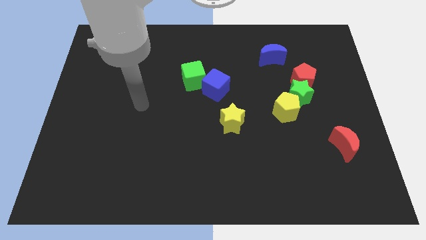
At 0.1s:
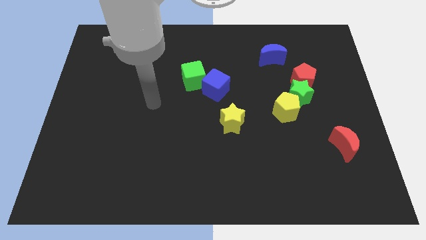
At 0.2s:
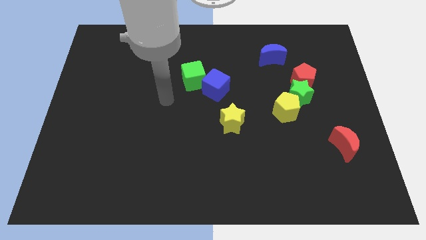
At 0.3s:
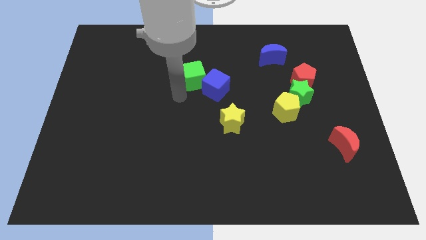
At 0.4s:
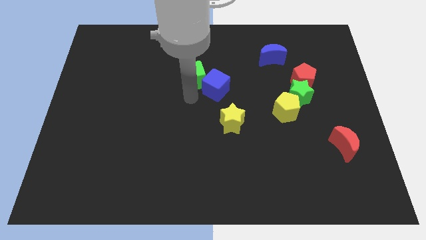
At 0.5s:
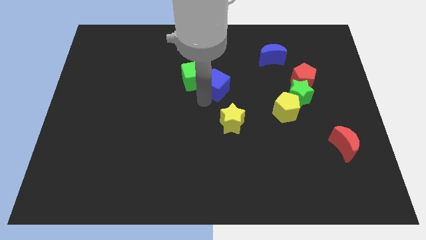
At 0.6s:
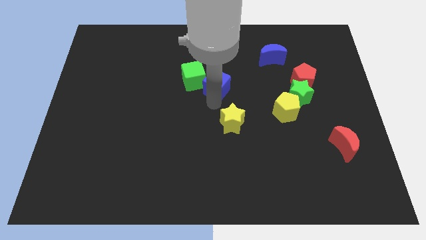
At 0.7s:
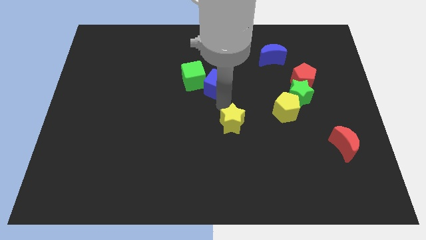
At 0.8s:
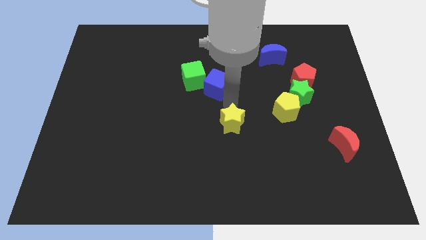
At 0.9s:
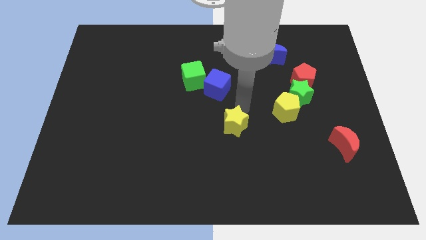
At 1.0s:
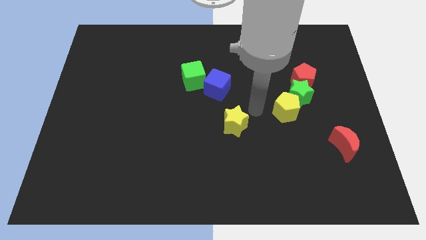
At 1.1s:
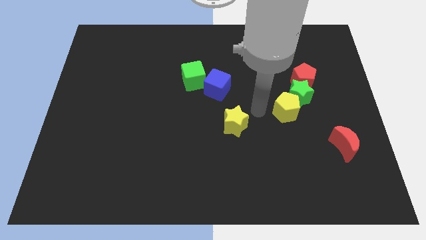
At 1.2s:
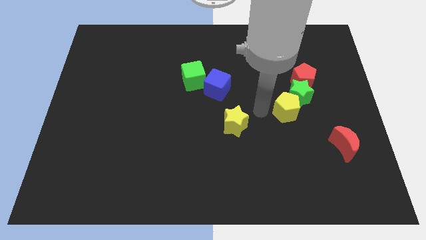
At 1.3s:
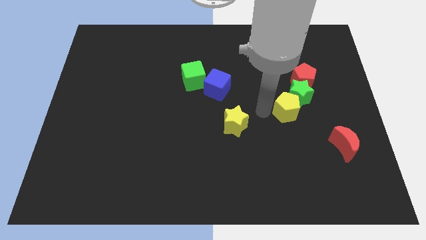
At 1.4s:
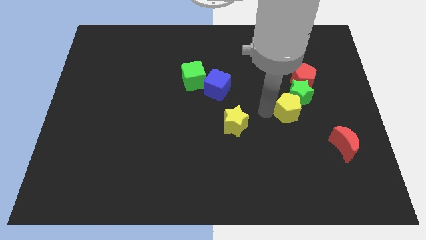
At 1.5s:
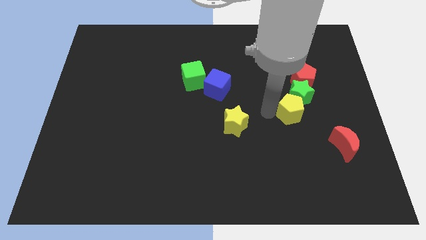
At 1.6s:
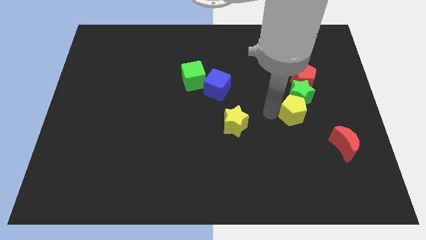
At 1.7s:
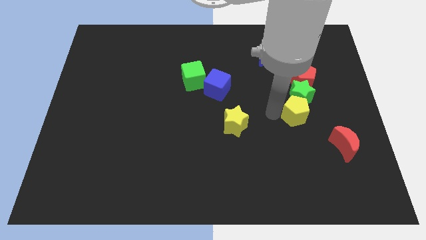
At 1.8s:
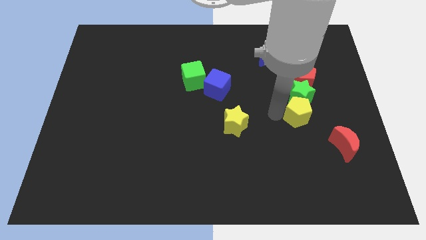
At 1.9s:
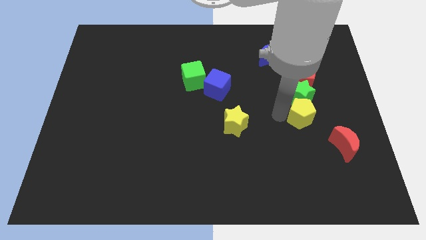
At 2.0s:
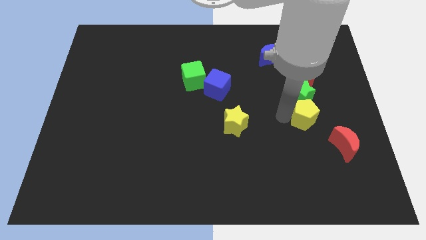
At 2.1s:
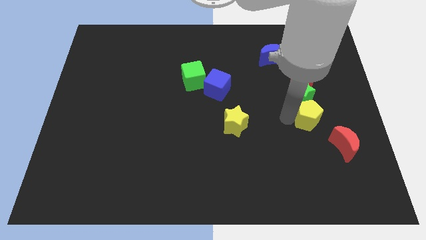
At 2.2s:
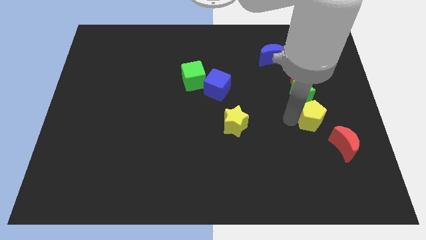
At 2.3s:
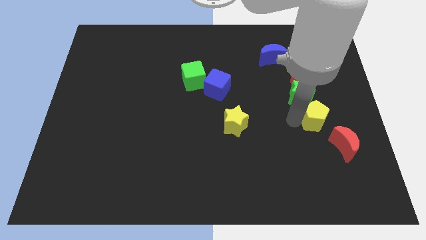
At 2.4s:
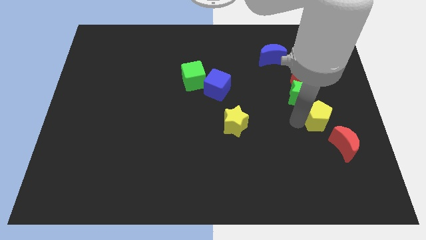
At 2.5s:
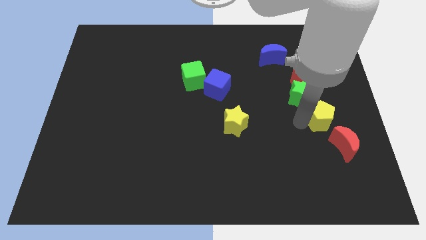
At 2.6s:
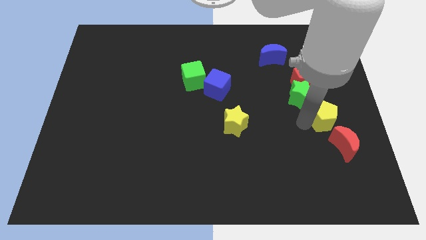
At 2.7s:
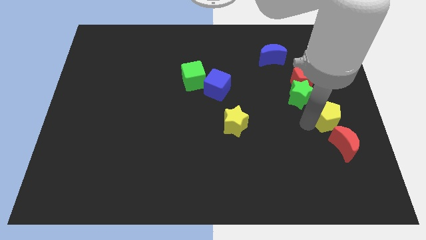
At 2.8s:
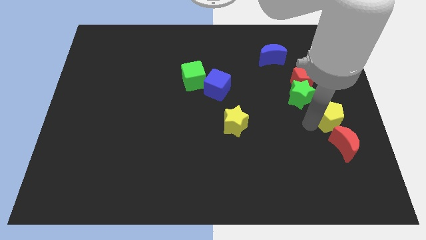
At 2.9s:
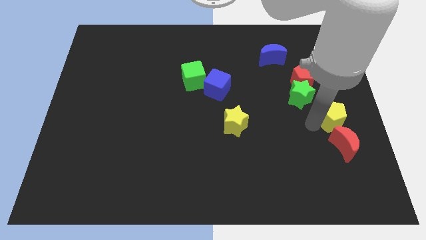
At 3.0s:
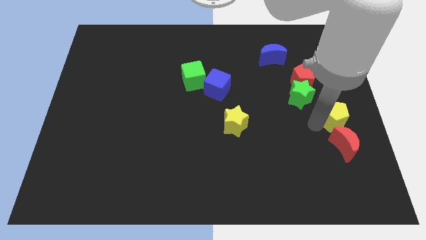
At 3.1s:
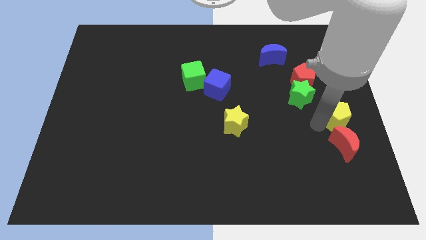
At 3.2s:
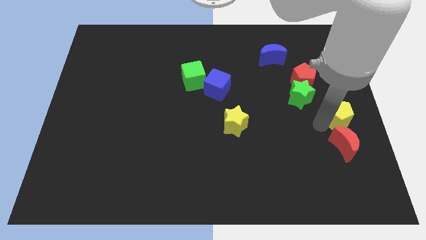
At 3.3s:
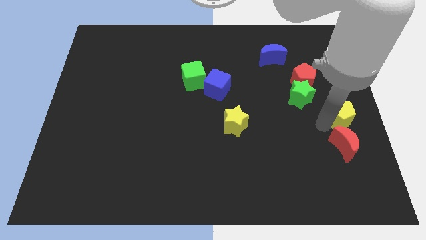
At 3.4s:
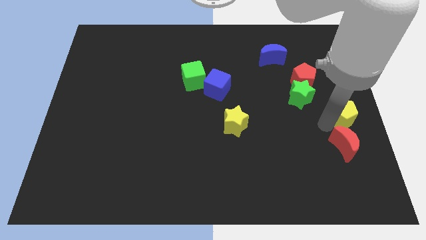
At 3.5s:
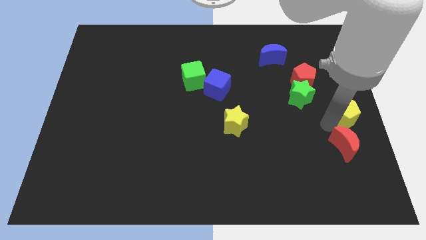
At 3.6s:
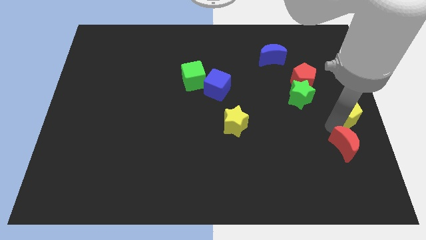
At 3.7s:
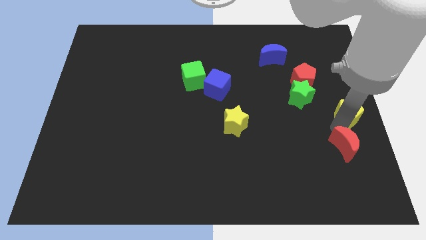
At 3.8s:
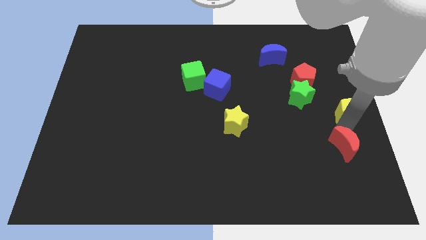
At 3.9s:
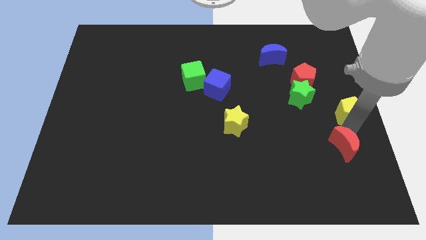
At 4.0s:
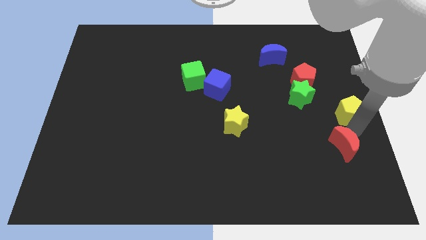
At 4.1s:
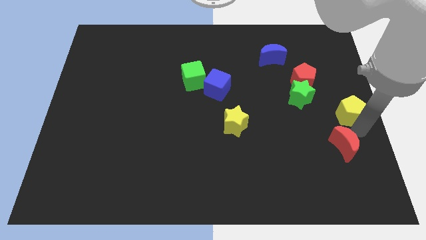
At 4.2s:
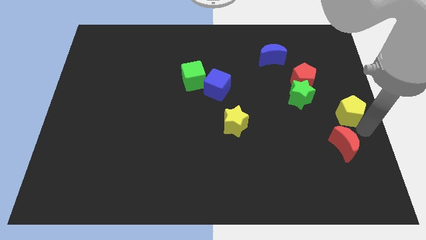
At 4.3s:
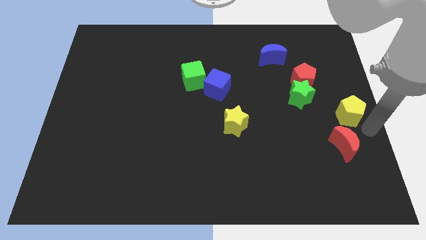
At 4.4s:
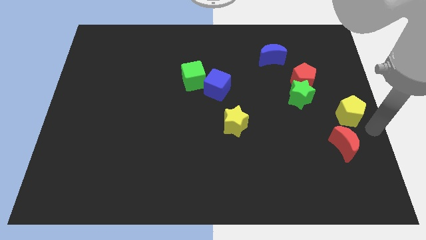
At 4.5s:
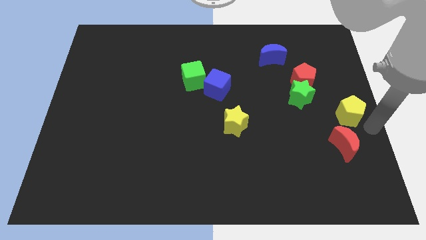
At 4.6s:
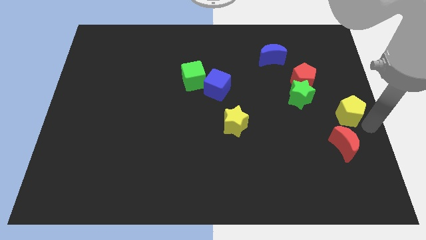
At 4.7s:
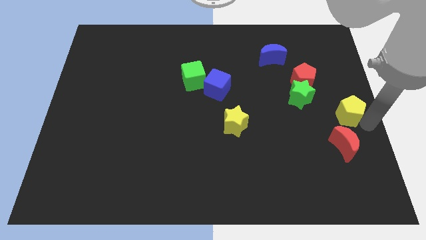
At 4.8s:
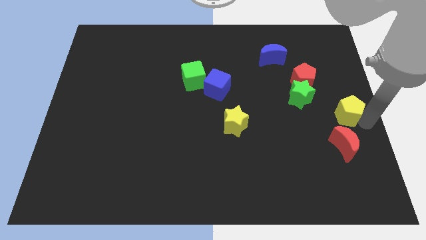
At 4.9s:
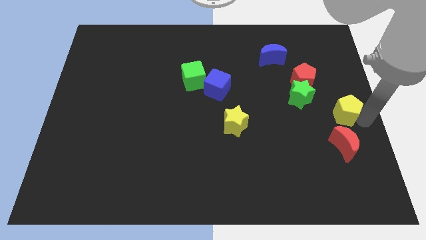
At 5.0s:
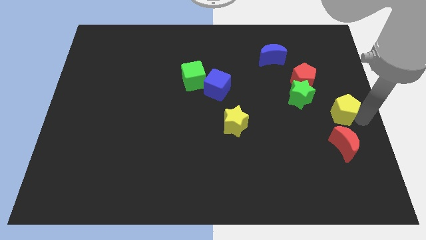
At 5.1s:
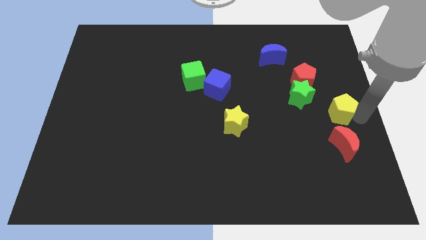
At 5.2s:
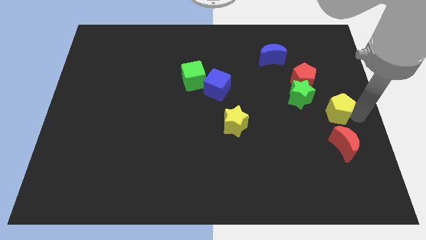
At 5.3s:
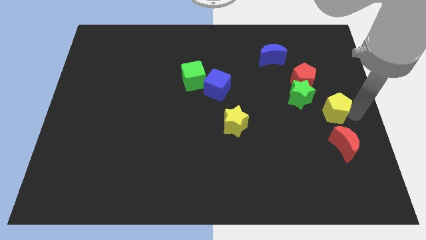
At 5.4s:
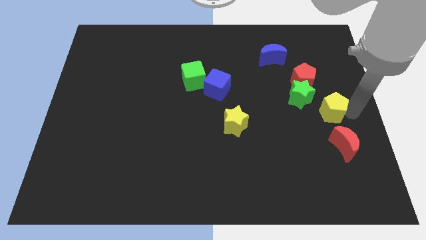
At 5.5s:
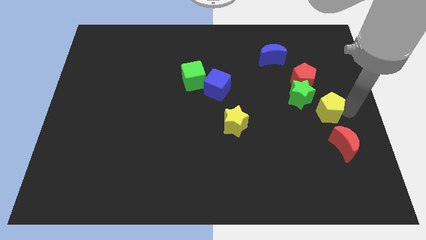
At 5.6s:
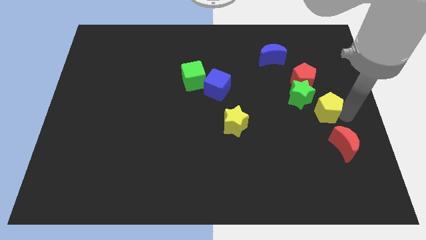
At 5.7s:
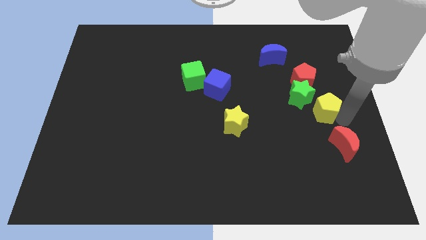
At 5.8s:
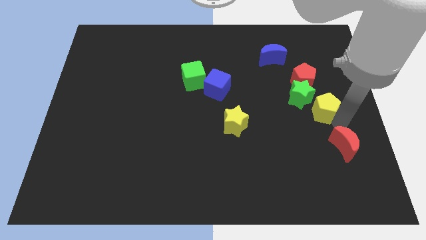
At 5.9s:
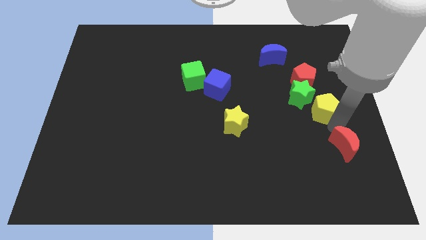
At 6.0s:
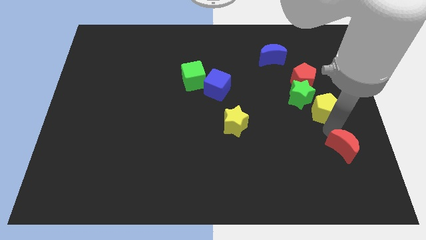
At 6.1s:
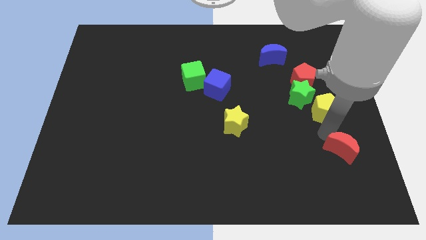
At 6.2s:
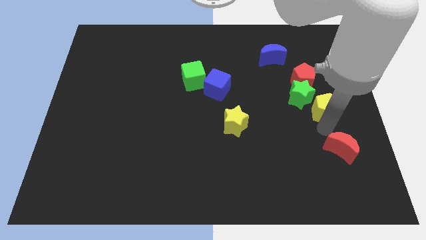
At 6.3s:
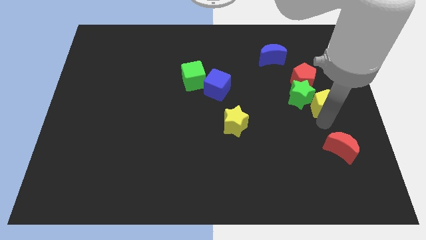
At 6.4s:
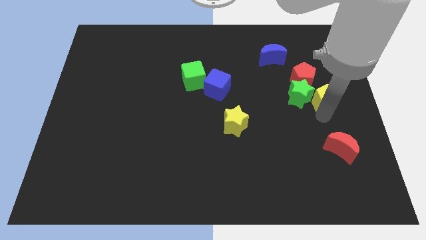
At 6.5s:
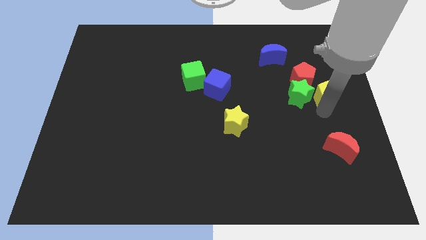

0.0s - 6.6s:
put the yellow pentagon to the top right side of the green star

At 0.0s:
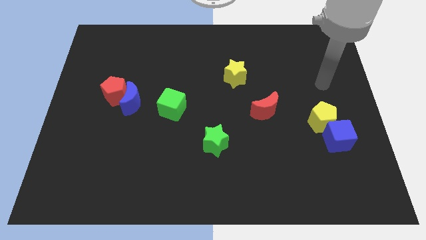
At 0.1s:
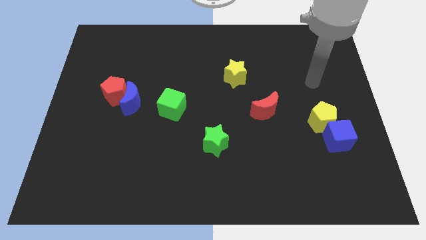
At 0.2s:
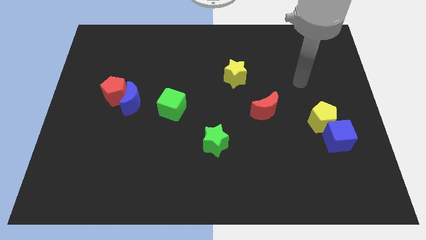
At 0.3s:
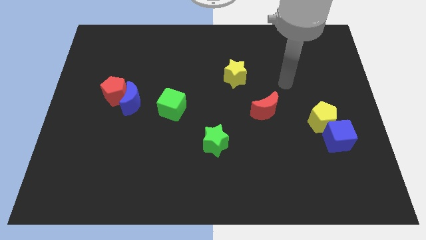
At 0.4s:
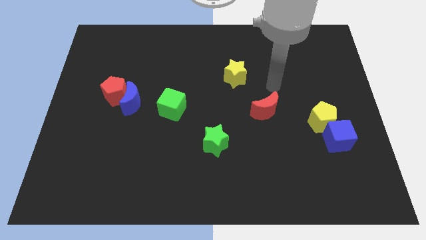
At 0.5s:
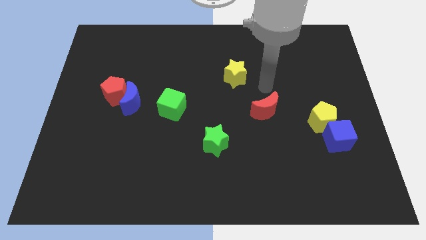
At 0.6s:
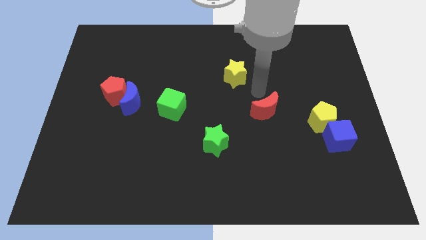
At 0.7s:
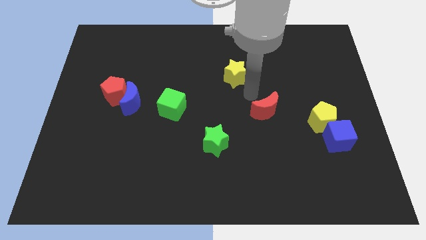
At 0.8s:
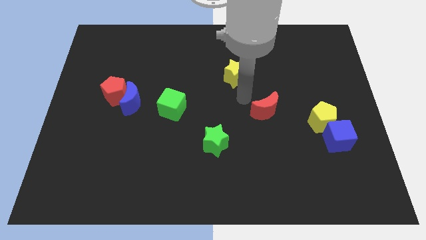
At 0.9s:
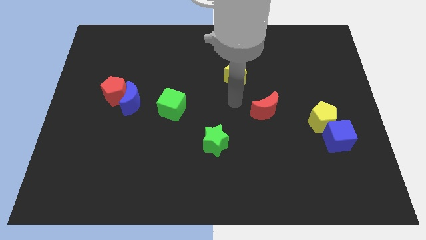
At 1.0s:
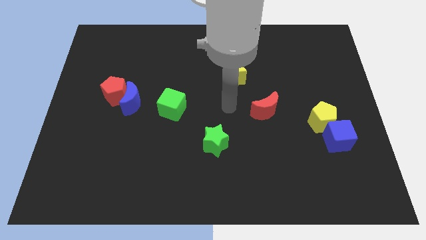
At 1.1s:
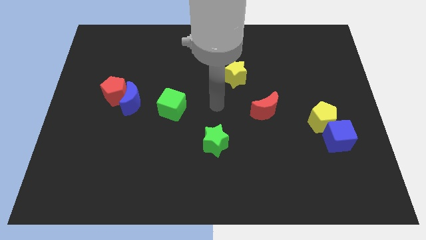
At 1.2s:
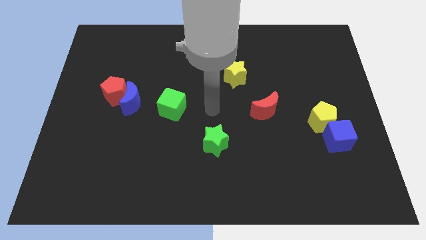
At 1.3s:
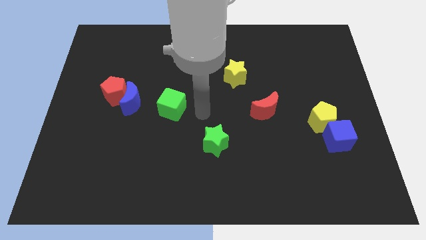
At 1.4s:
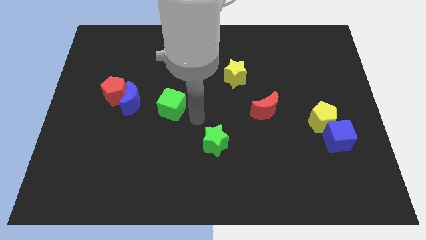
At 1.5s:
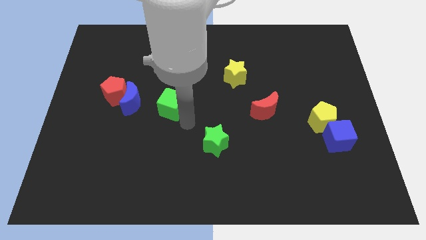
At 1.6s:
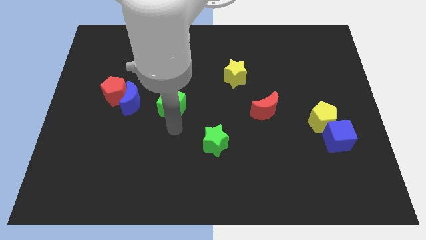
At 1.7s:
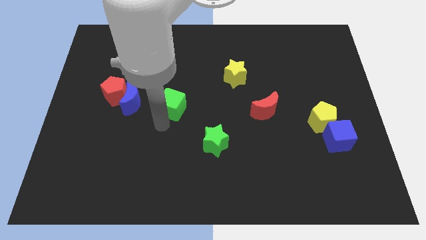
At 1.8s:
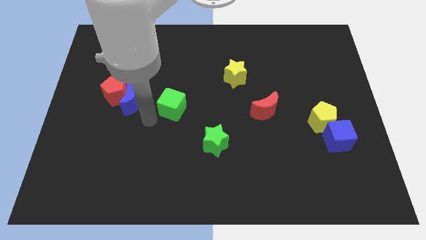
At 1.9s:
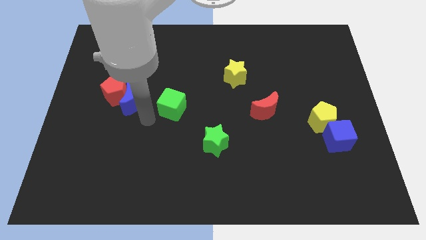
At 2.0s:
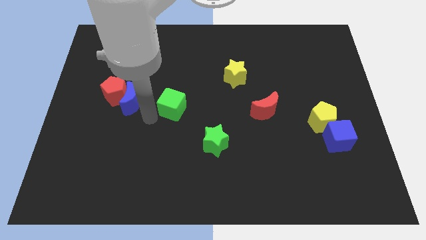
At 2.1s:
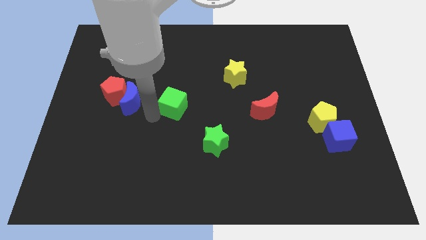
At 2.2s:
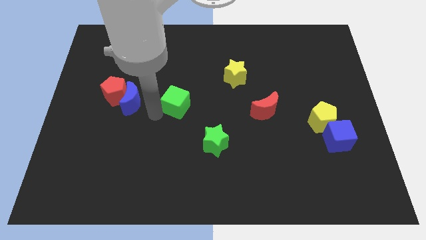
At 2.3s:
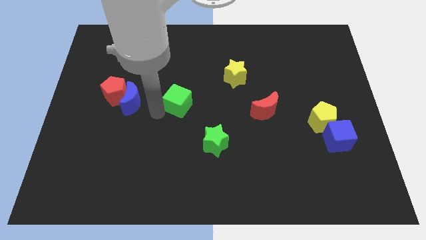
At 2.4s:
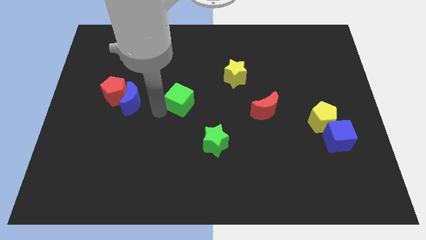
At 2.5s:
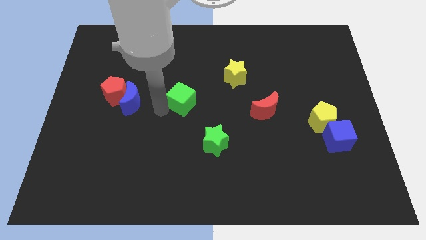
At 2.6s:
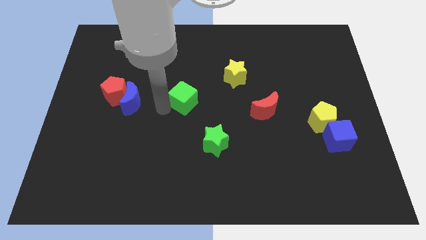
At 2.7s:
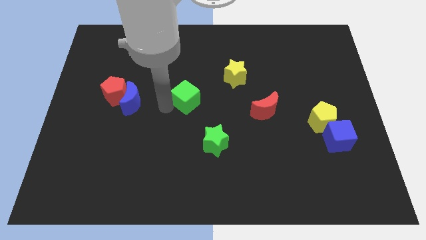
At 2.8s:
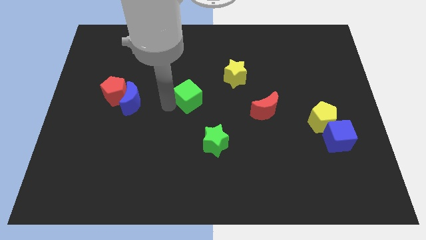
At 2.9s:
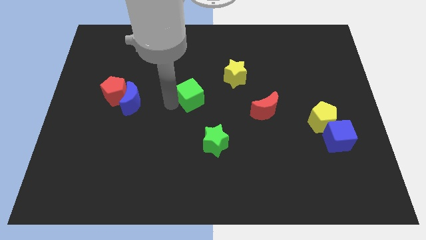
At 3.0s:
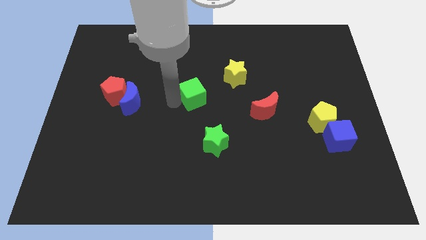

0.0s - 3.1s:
push the green cube to the bottom left of the yellow star
